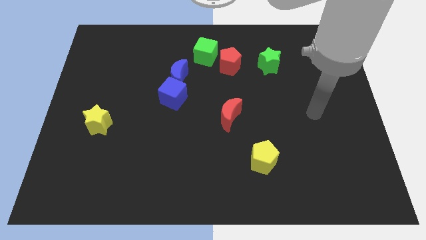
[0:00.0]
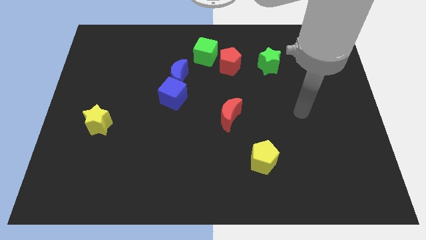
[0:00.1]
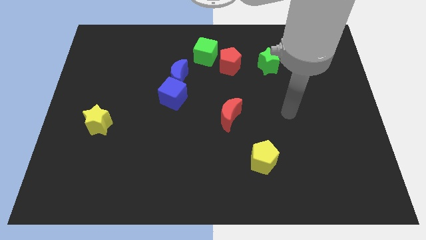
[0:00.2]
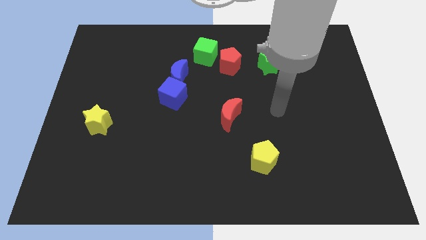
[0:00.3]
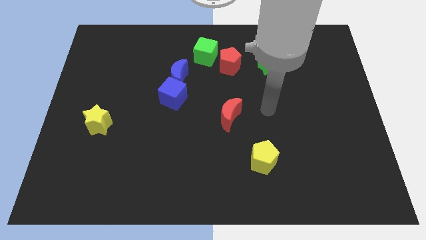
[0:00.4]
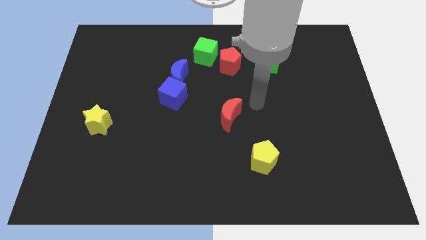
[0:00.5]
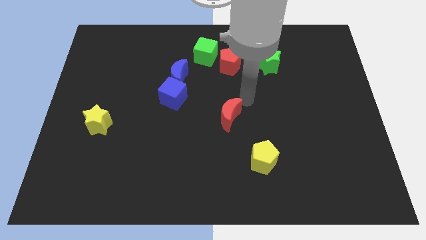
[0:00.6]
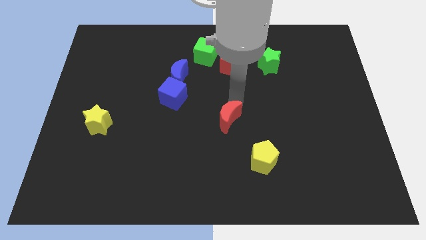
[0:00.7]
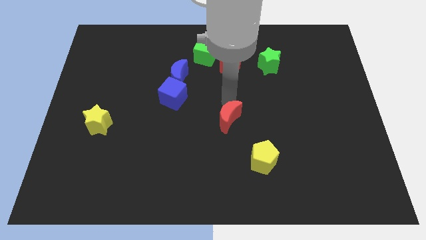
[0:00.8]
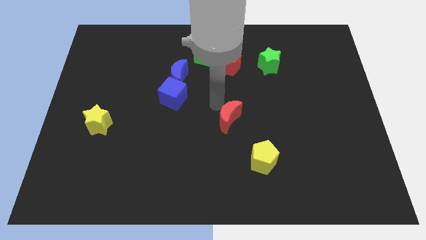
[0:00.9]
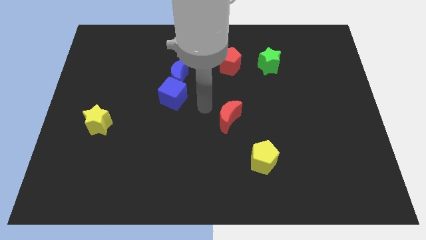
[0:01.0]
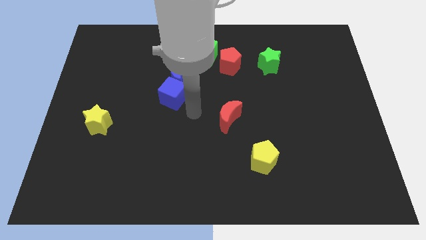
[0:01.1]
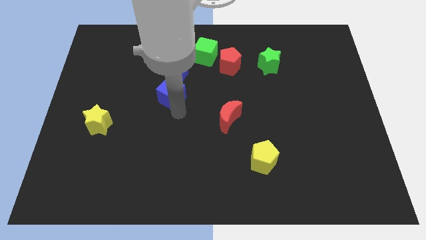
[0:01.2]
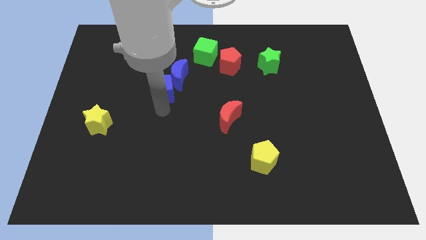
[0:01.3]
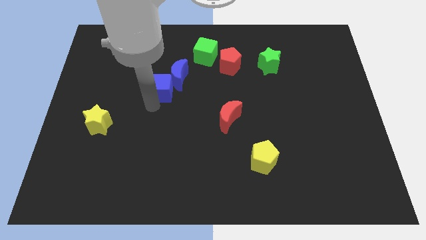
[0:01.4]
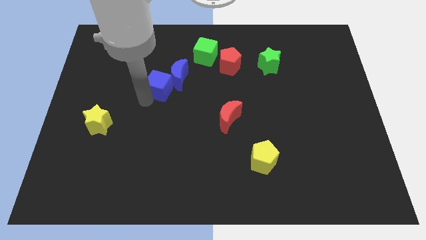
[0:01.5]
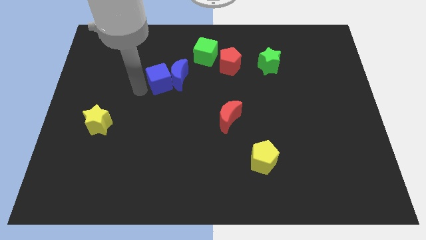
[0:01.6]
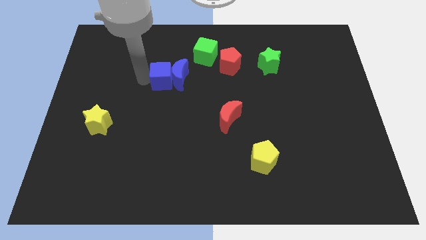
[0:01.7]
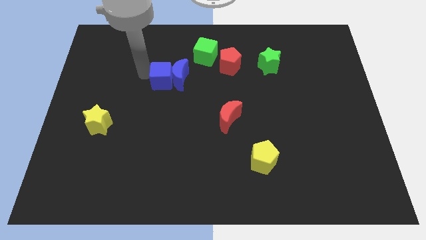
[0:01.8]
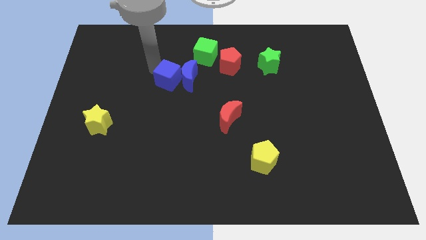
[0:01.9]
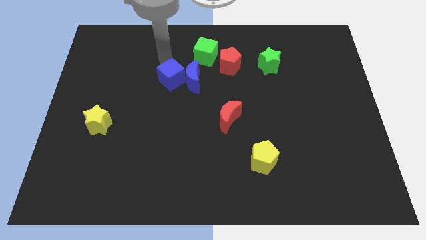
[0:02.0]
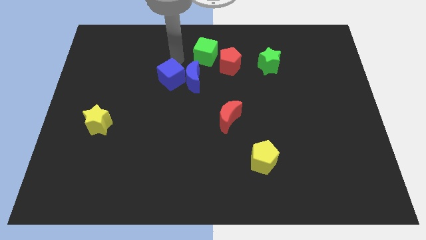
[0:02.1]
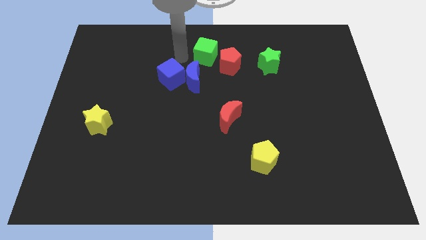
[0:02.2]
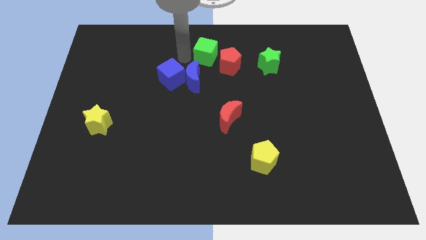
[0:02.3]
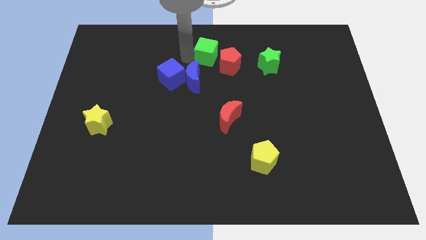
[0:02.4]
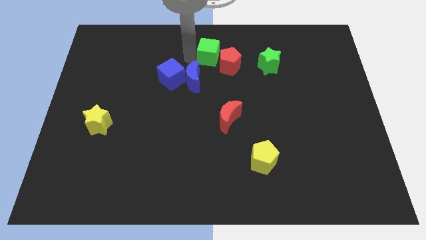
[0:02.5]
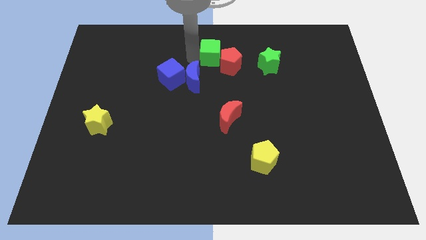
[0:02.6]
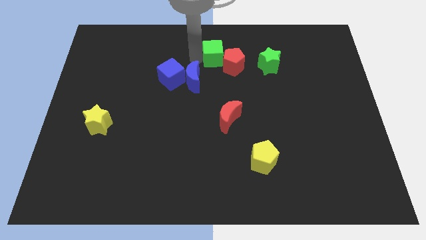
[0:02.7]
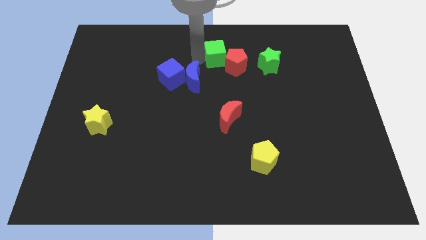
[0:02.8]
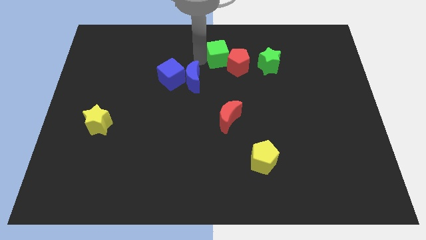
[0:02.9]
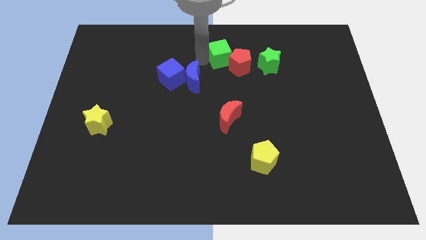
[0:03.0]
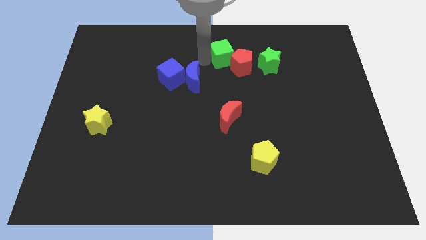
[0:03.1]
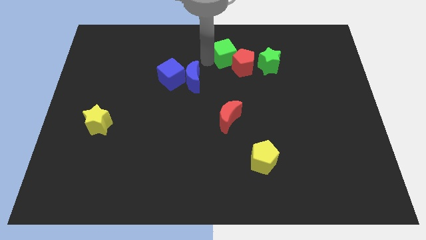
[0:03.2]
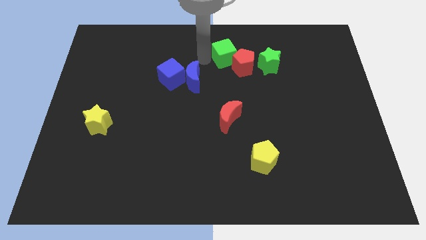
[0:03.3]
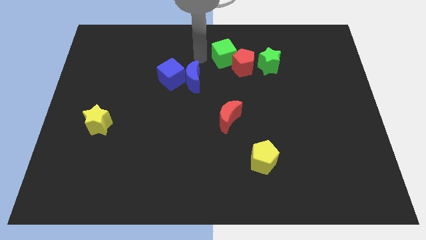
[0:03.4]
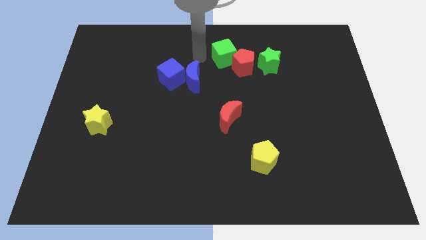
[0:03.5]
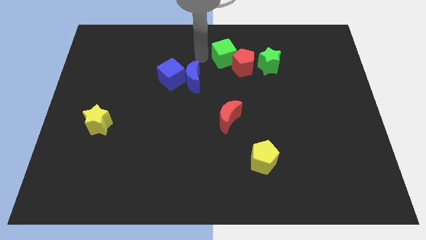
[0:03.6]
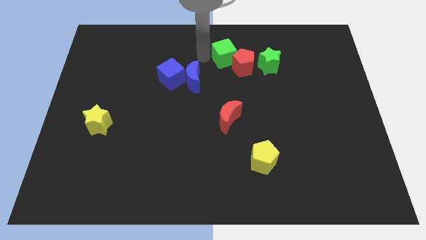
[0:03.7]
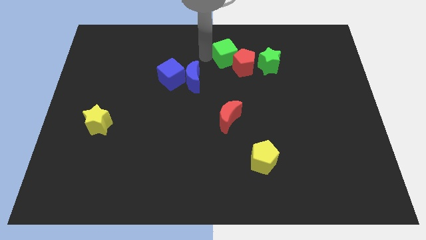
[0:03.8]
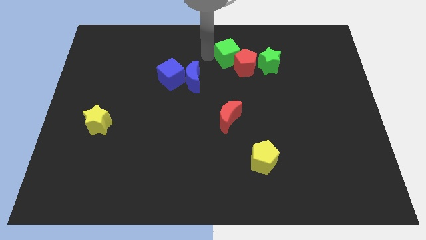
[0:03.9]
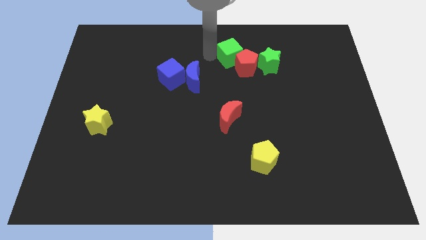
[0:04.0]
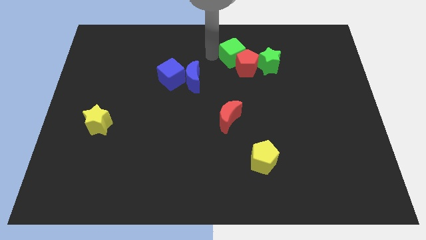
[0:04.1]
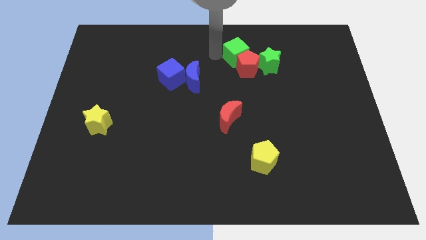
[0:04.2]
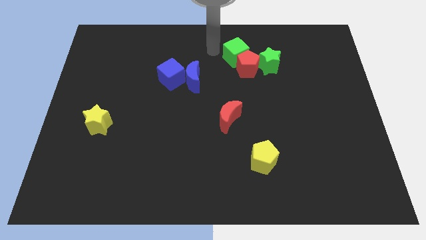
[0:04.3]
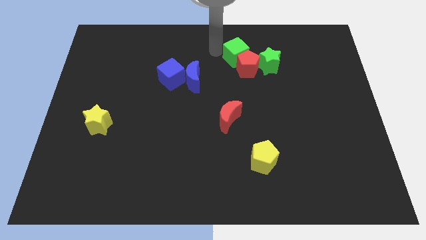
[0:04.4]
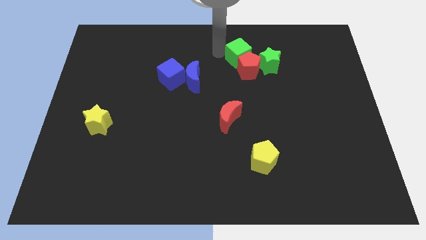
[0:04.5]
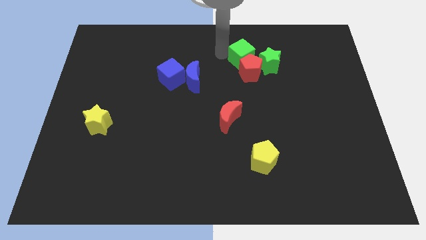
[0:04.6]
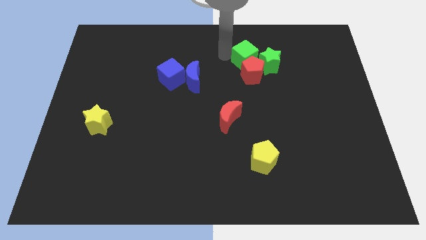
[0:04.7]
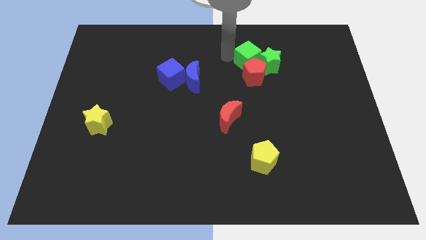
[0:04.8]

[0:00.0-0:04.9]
slide the green cube close to the green star

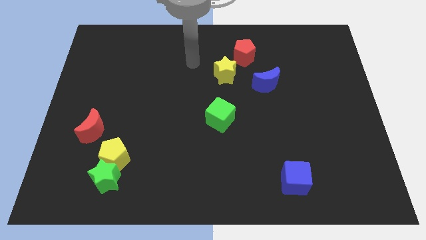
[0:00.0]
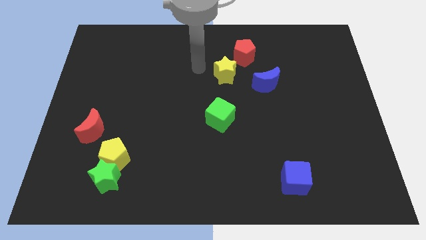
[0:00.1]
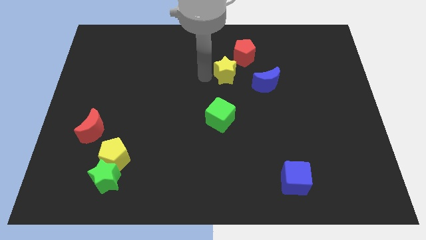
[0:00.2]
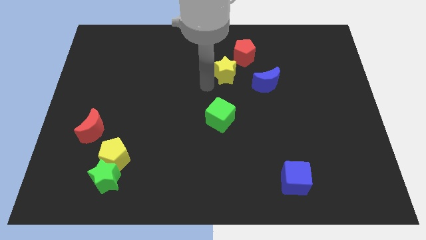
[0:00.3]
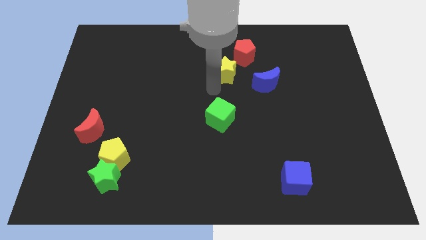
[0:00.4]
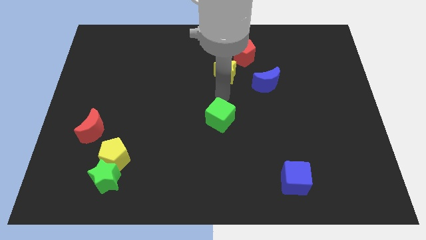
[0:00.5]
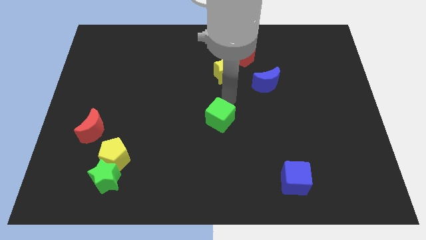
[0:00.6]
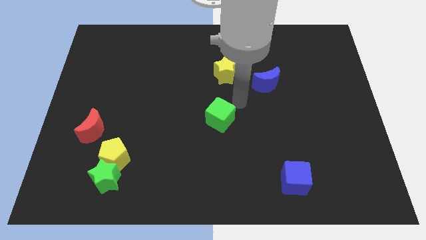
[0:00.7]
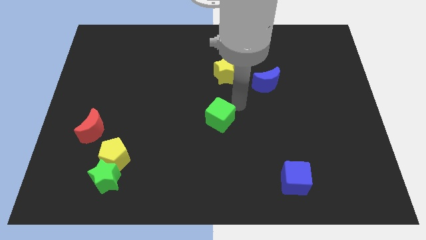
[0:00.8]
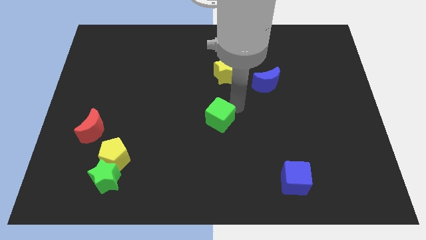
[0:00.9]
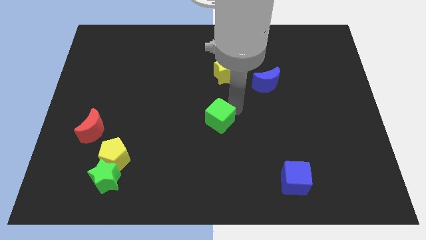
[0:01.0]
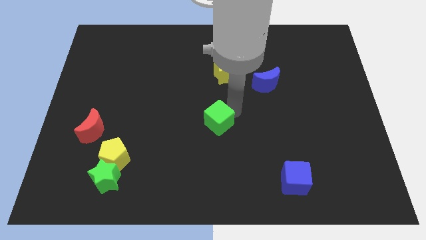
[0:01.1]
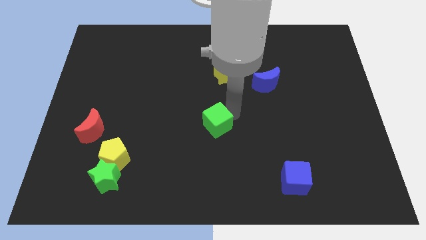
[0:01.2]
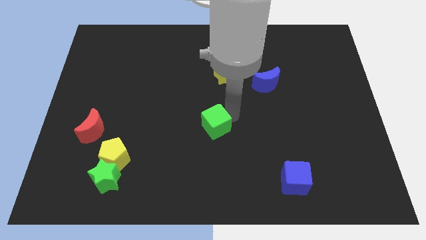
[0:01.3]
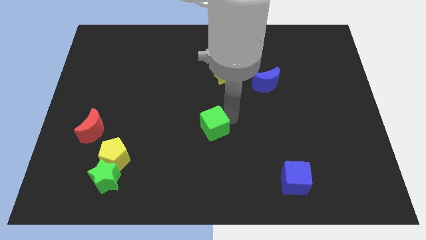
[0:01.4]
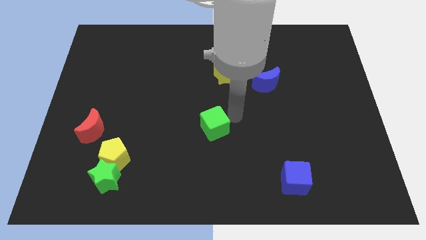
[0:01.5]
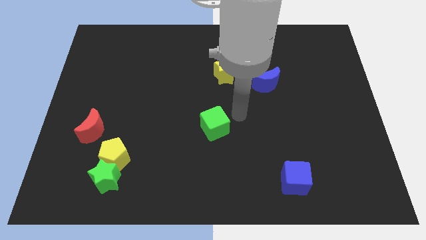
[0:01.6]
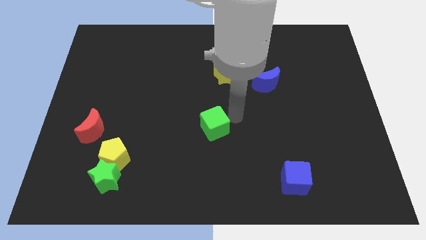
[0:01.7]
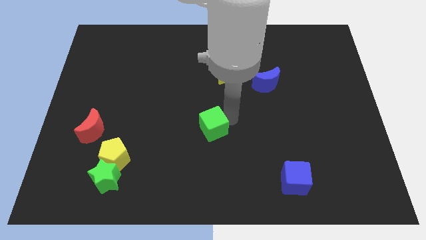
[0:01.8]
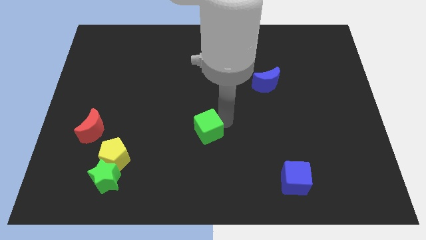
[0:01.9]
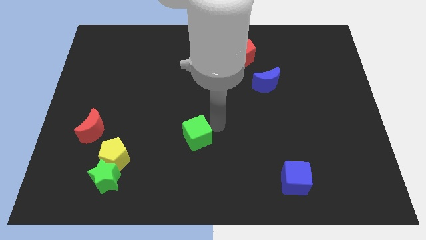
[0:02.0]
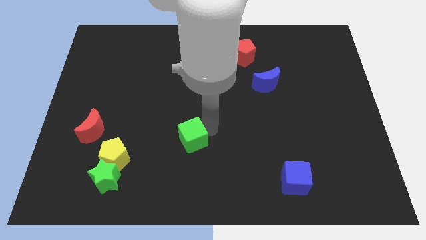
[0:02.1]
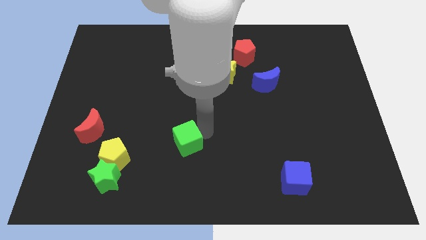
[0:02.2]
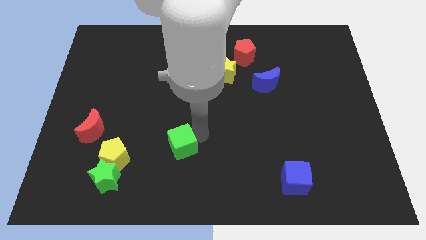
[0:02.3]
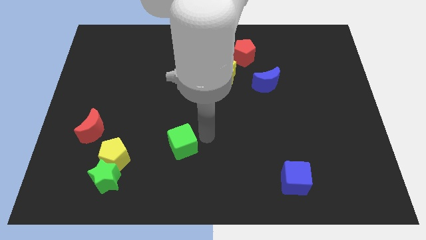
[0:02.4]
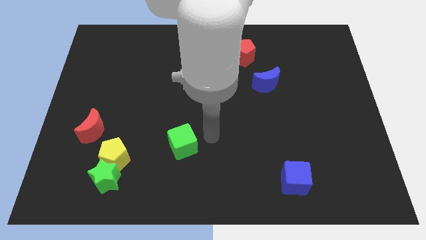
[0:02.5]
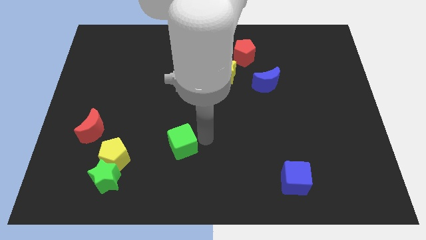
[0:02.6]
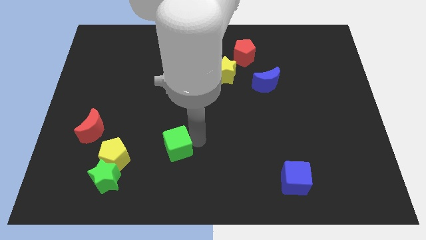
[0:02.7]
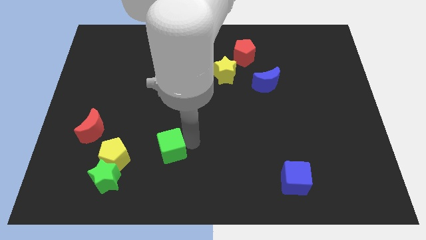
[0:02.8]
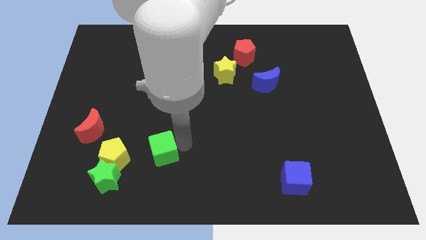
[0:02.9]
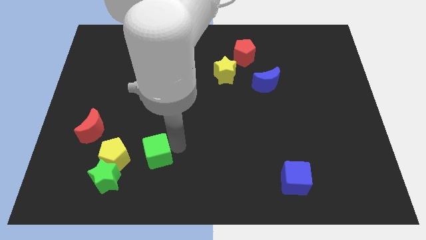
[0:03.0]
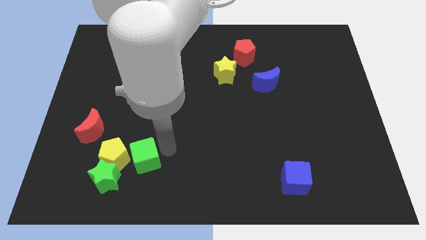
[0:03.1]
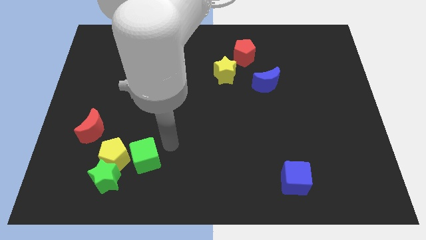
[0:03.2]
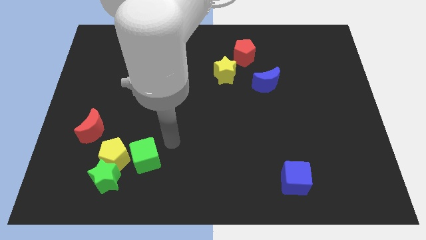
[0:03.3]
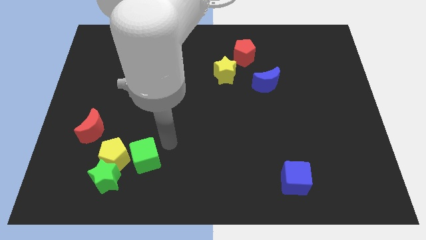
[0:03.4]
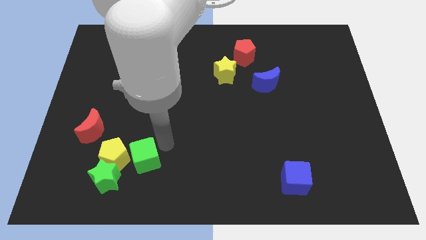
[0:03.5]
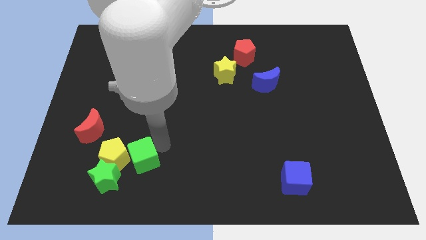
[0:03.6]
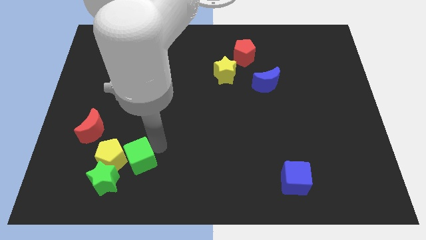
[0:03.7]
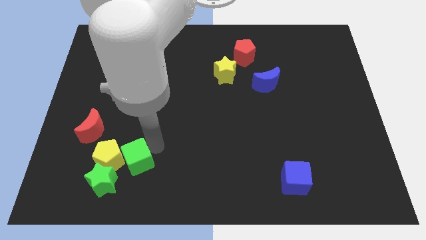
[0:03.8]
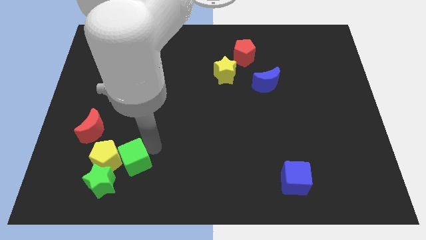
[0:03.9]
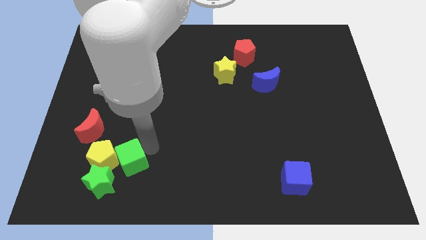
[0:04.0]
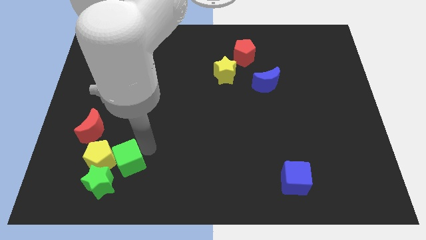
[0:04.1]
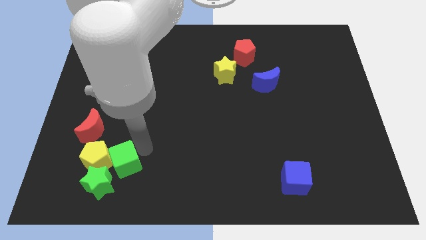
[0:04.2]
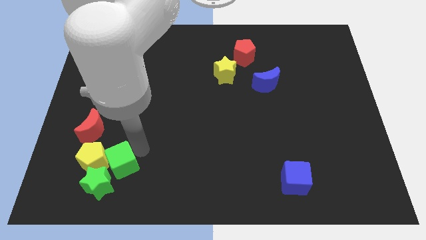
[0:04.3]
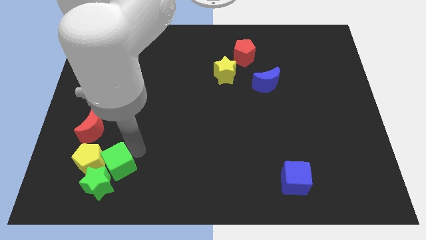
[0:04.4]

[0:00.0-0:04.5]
move the green cube next to the green star
